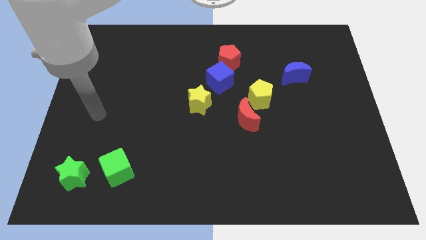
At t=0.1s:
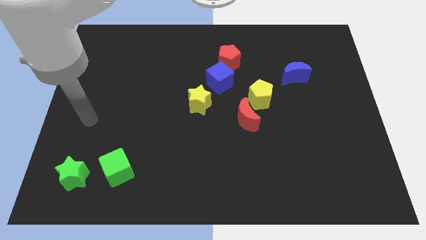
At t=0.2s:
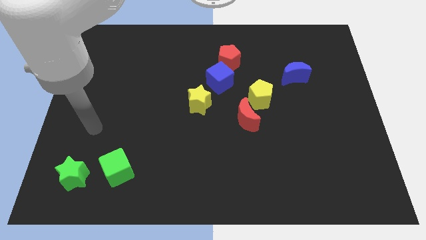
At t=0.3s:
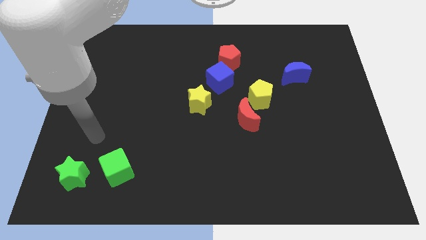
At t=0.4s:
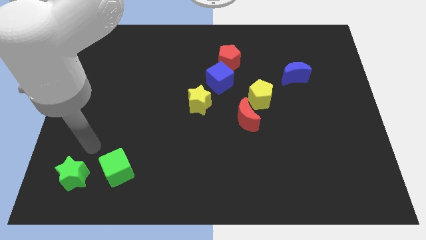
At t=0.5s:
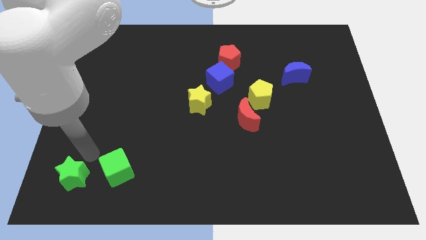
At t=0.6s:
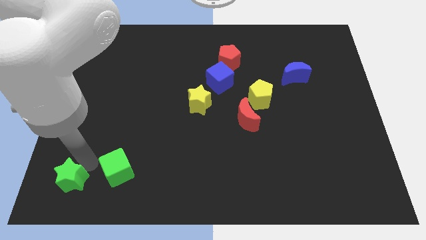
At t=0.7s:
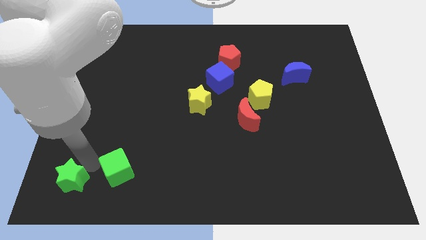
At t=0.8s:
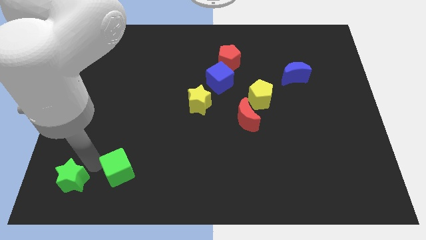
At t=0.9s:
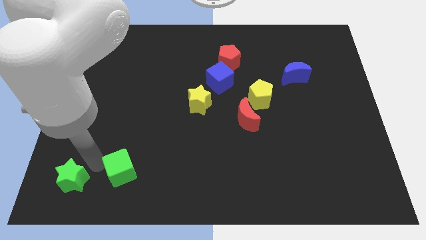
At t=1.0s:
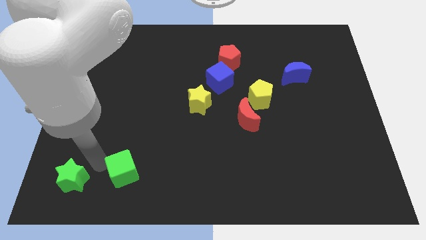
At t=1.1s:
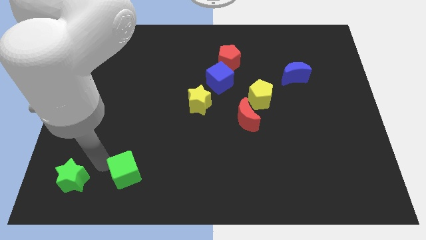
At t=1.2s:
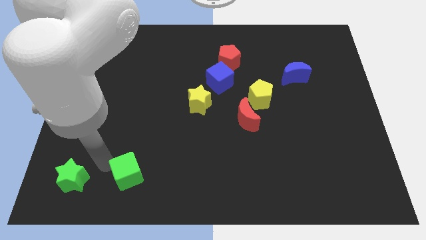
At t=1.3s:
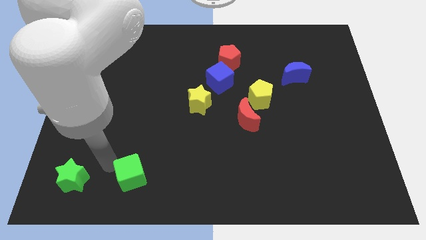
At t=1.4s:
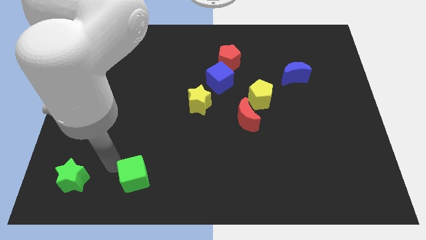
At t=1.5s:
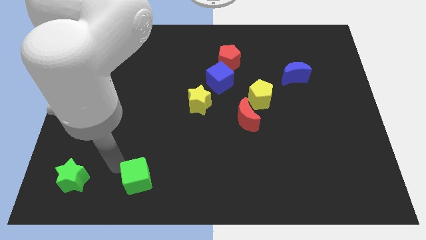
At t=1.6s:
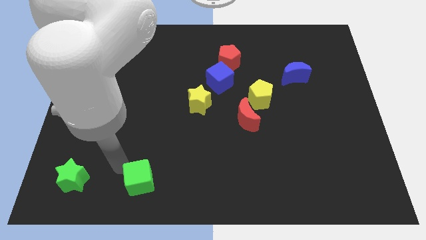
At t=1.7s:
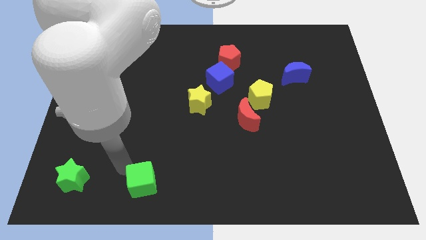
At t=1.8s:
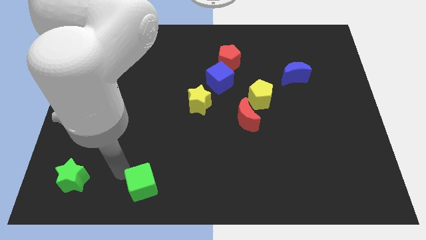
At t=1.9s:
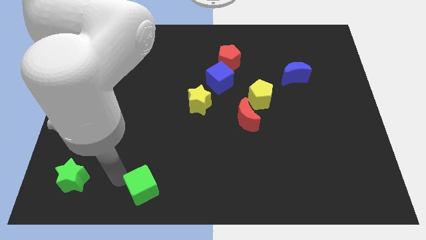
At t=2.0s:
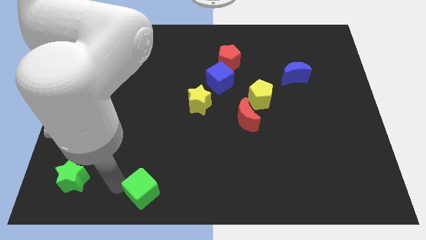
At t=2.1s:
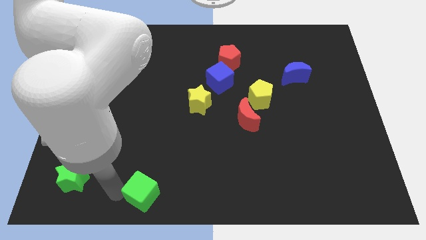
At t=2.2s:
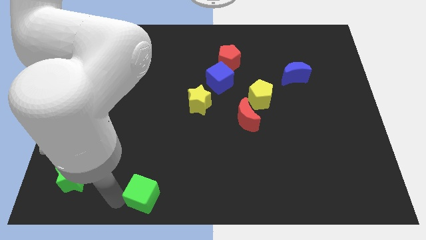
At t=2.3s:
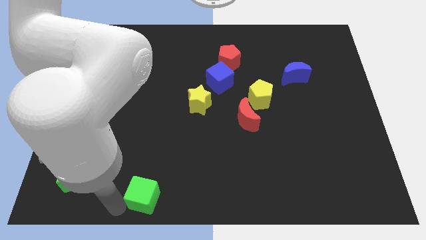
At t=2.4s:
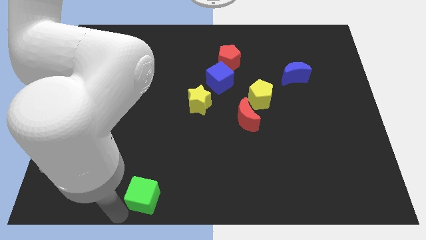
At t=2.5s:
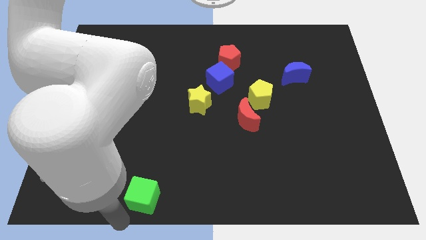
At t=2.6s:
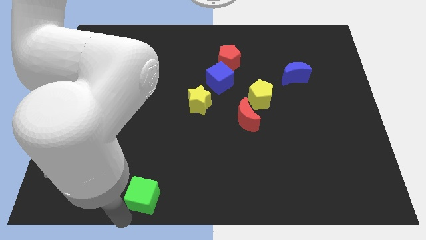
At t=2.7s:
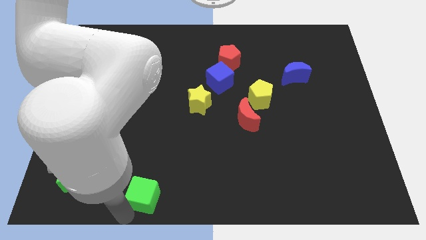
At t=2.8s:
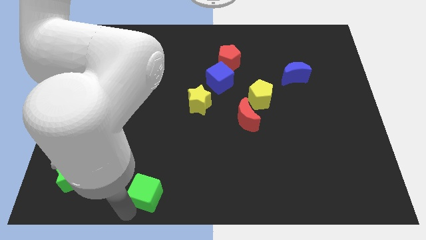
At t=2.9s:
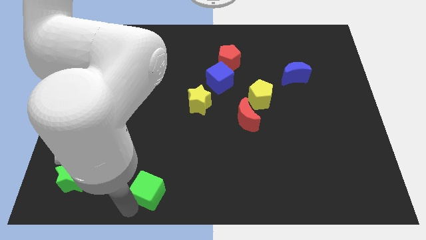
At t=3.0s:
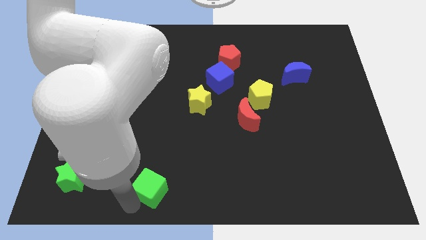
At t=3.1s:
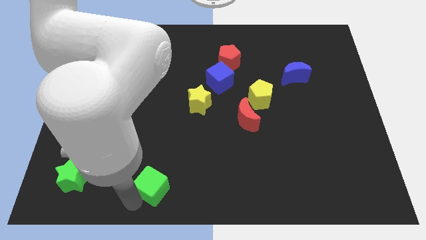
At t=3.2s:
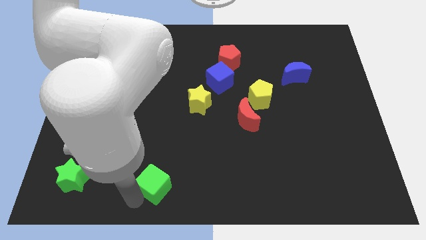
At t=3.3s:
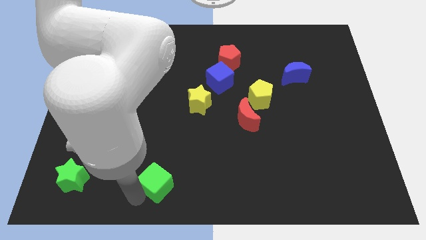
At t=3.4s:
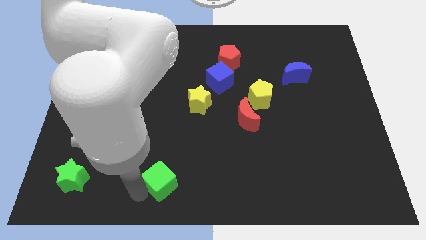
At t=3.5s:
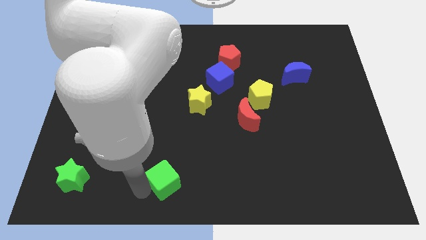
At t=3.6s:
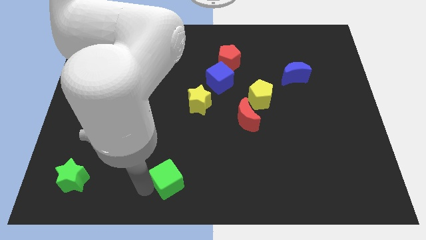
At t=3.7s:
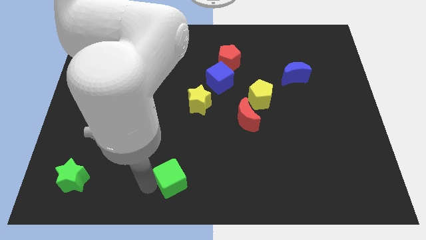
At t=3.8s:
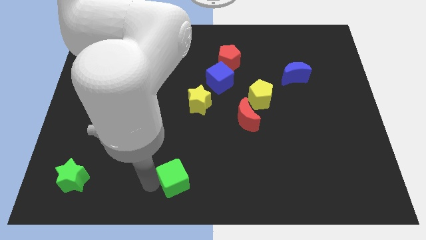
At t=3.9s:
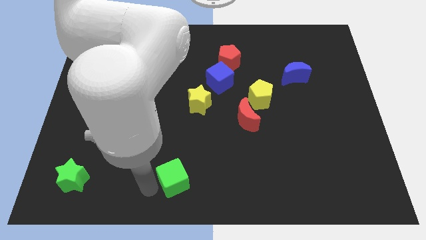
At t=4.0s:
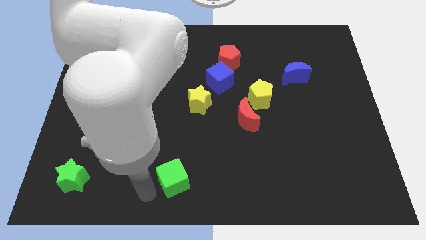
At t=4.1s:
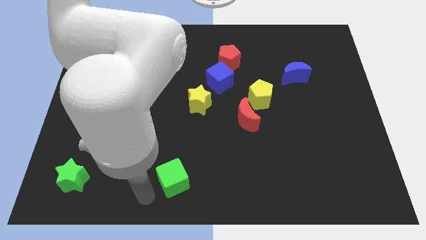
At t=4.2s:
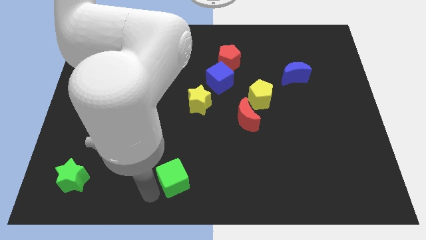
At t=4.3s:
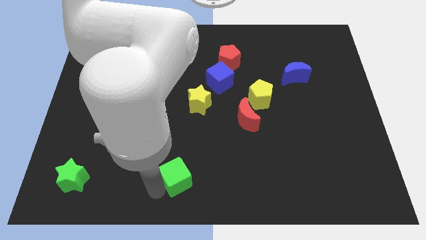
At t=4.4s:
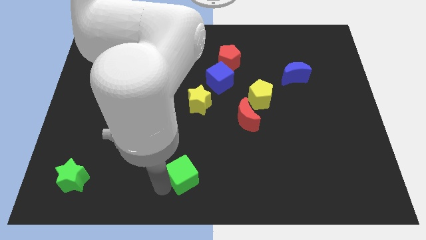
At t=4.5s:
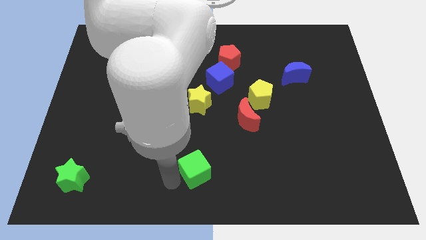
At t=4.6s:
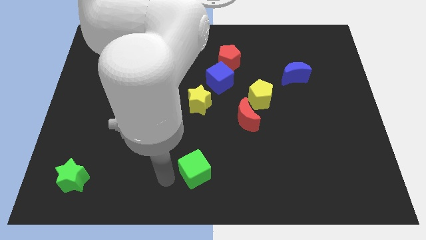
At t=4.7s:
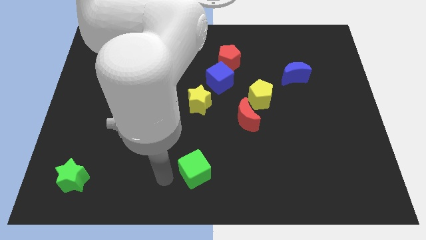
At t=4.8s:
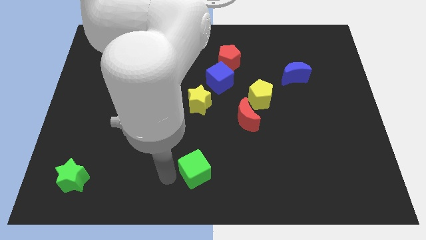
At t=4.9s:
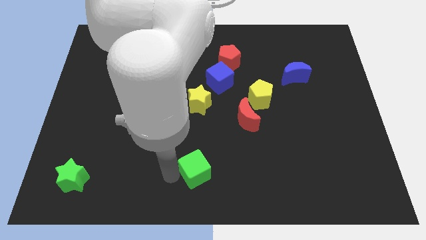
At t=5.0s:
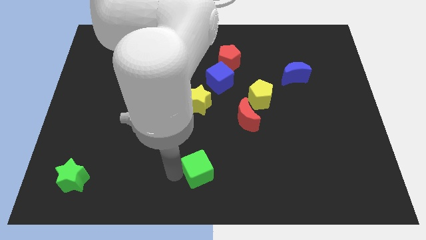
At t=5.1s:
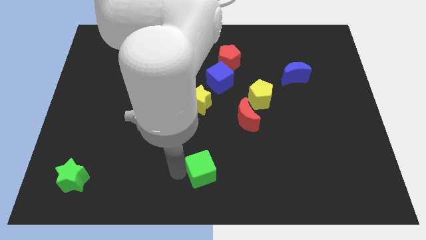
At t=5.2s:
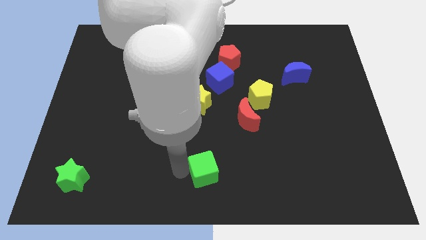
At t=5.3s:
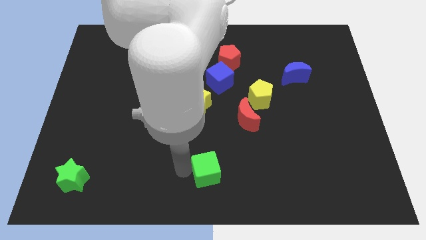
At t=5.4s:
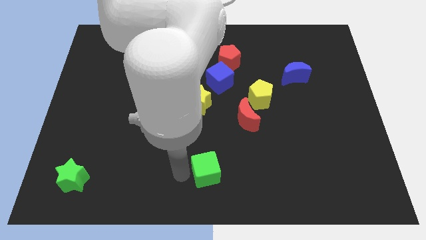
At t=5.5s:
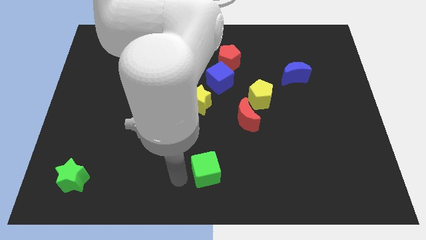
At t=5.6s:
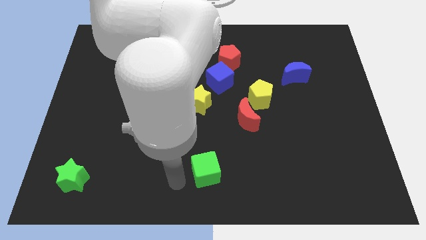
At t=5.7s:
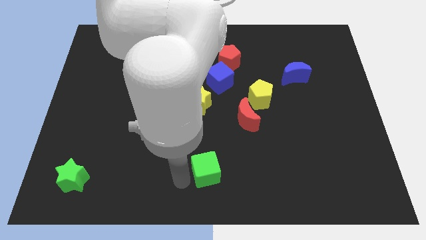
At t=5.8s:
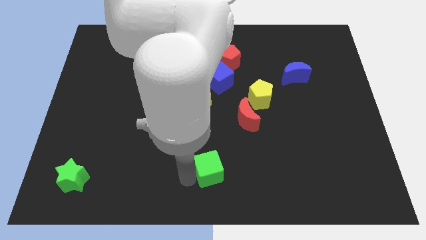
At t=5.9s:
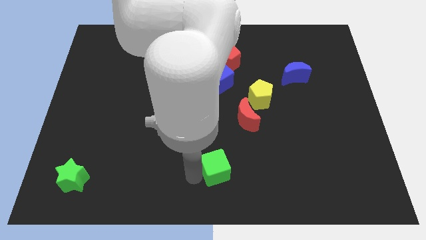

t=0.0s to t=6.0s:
push the green cube to the right

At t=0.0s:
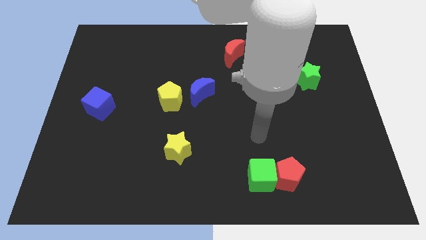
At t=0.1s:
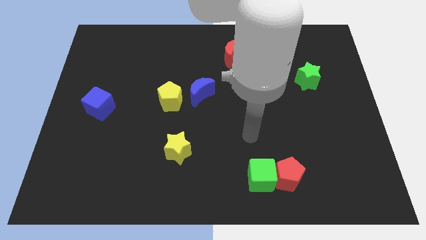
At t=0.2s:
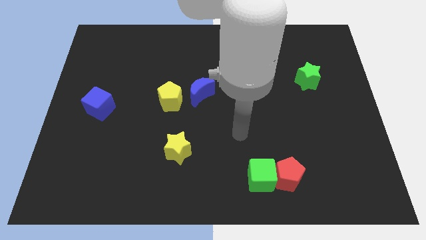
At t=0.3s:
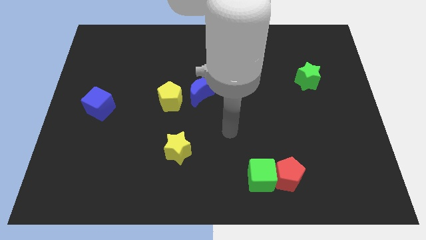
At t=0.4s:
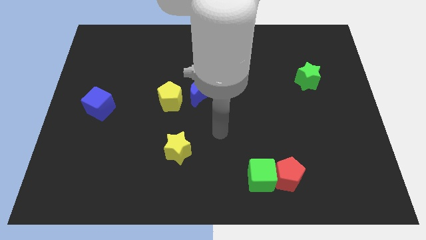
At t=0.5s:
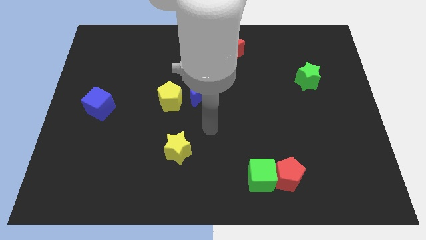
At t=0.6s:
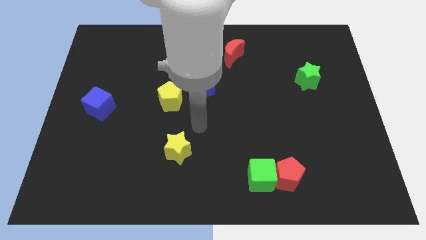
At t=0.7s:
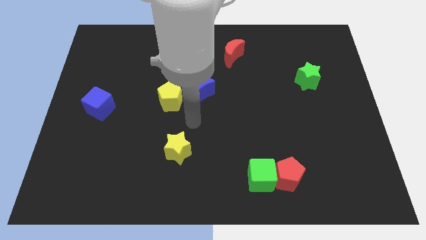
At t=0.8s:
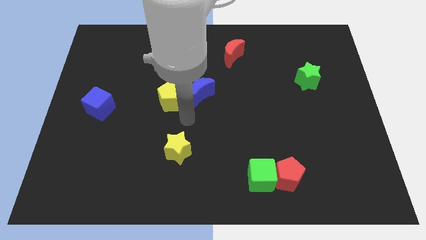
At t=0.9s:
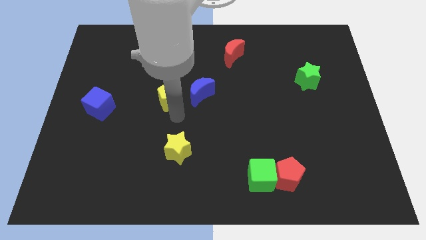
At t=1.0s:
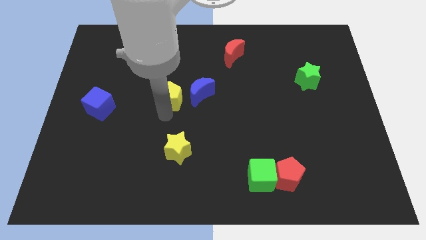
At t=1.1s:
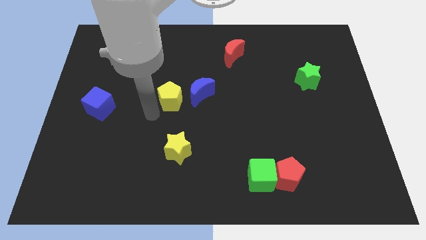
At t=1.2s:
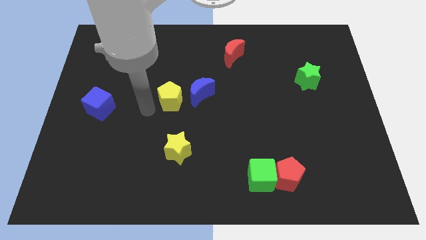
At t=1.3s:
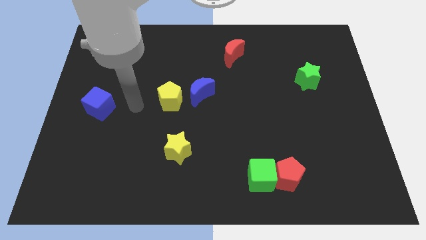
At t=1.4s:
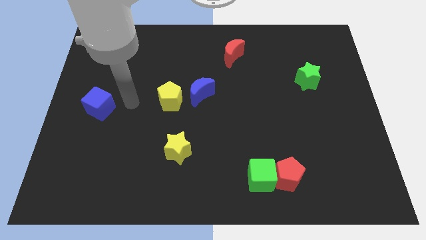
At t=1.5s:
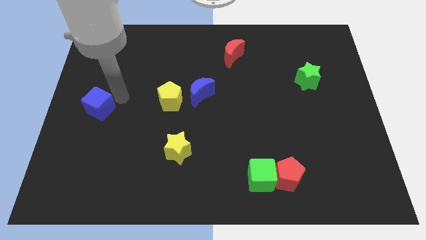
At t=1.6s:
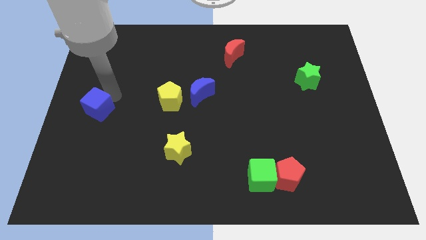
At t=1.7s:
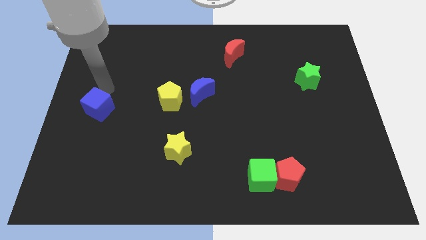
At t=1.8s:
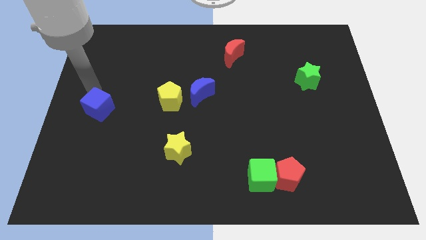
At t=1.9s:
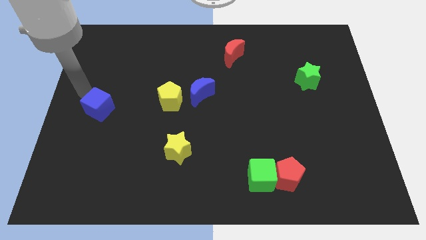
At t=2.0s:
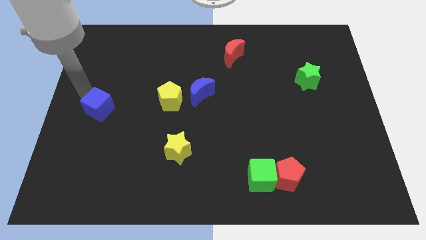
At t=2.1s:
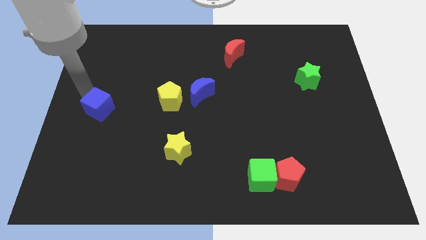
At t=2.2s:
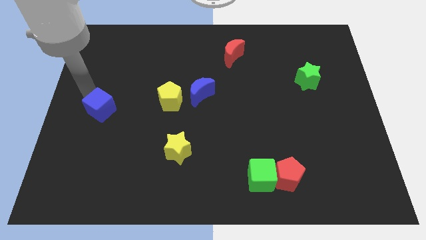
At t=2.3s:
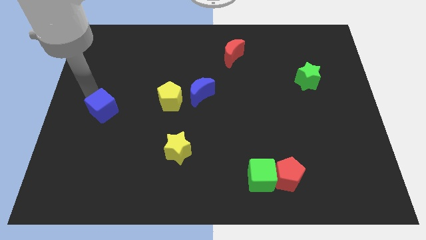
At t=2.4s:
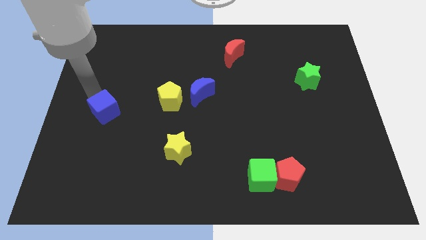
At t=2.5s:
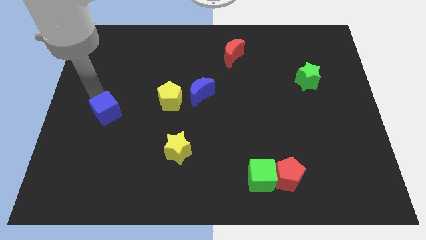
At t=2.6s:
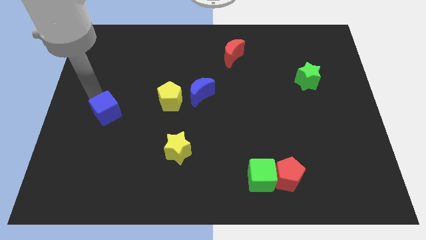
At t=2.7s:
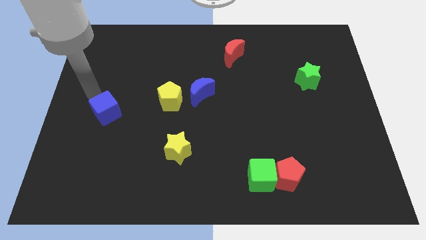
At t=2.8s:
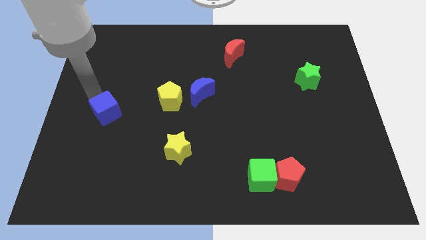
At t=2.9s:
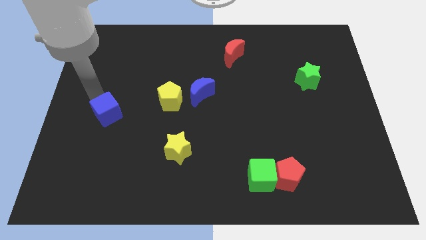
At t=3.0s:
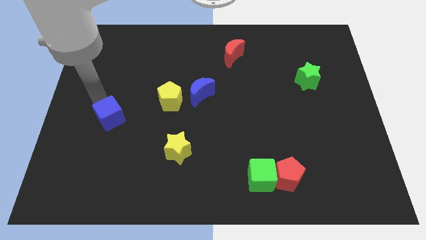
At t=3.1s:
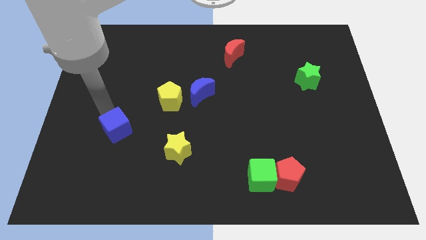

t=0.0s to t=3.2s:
slightly move the blue cube diagonally down and right
